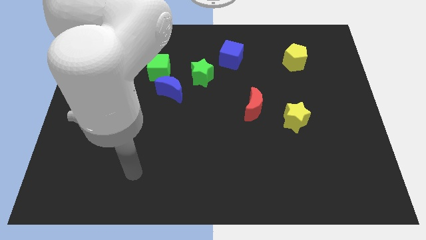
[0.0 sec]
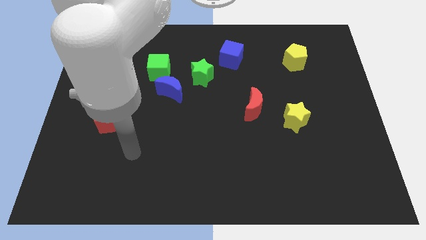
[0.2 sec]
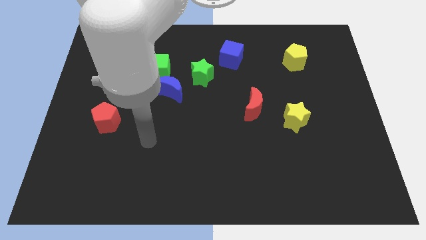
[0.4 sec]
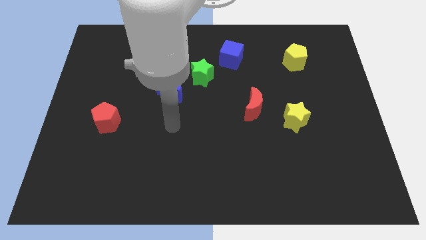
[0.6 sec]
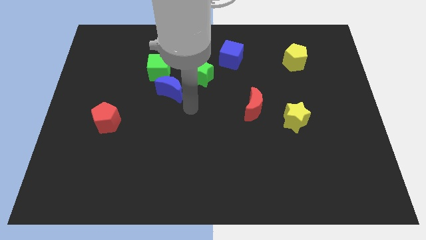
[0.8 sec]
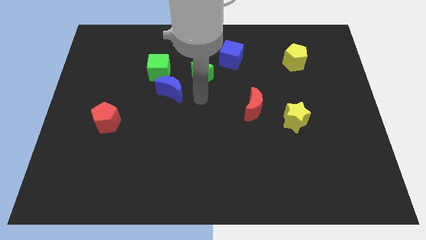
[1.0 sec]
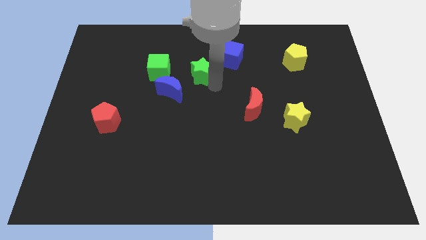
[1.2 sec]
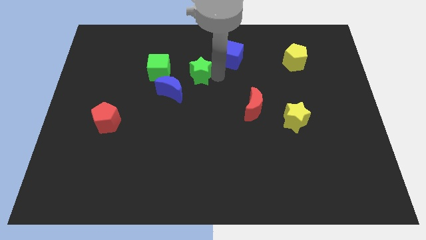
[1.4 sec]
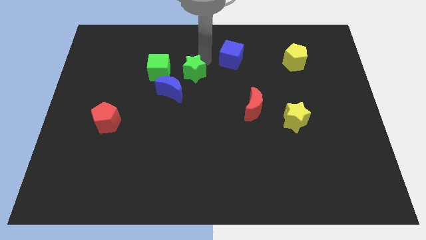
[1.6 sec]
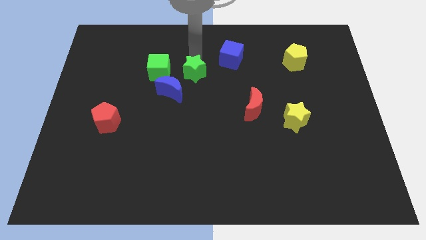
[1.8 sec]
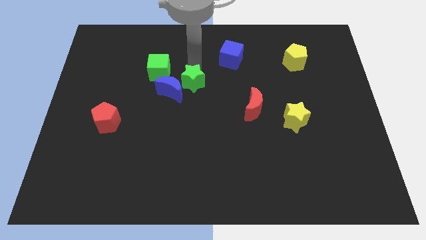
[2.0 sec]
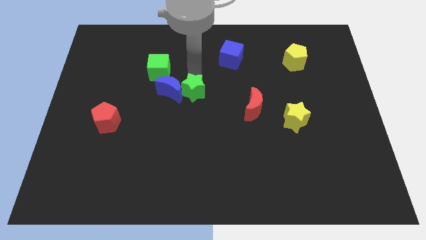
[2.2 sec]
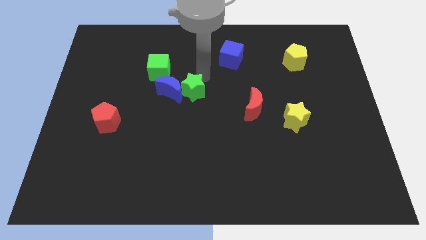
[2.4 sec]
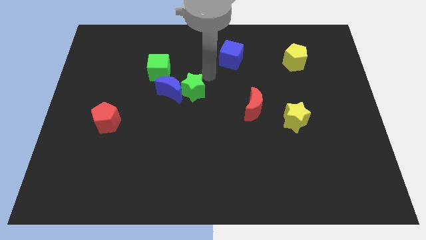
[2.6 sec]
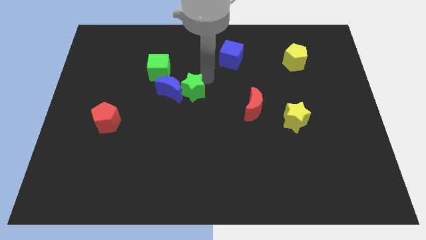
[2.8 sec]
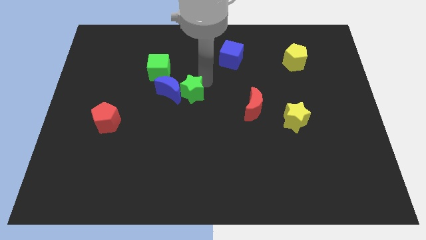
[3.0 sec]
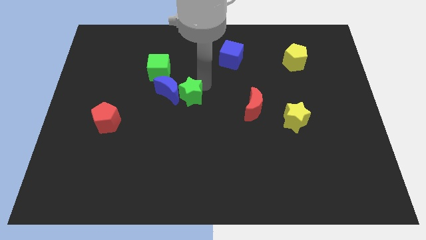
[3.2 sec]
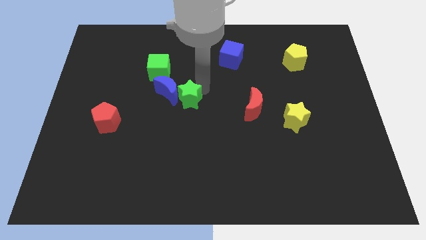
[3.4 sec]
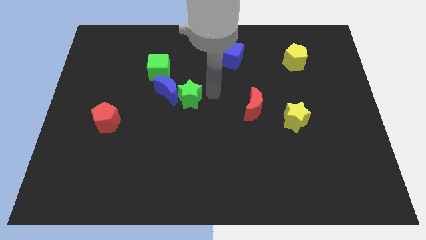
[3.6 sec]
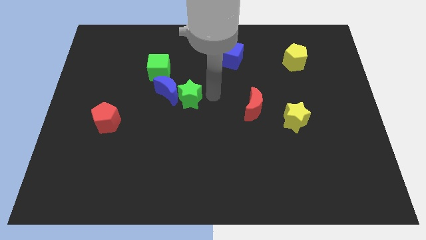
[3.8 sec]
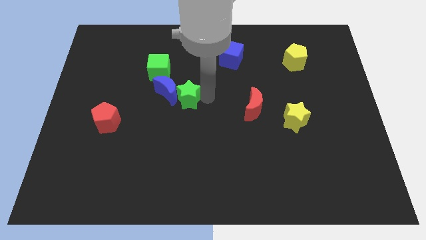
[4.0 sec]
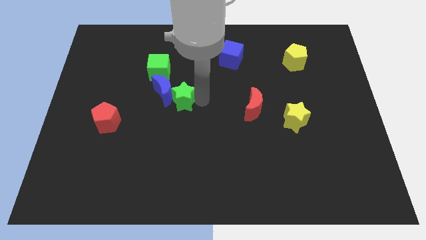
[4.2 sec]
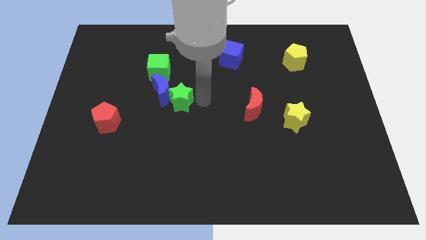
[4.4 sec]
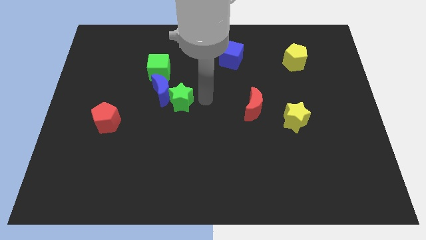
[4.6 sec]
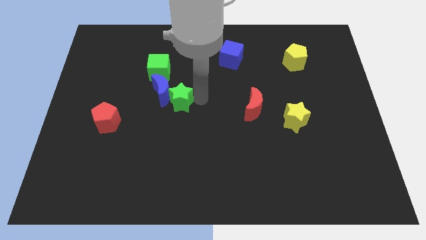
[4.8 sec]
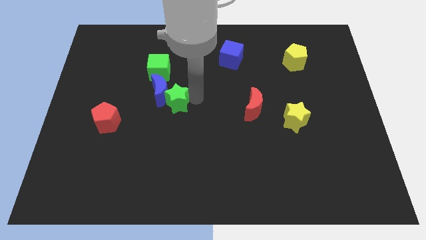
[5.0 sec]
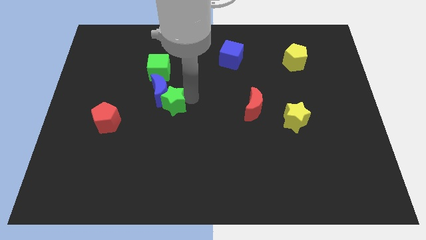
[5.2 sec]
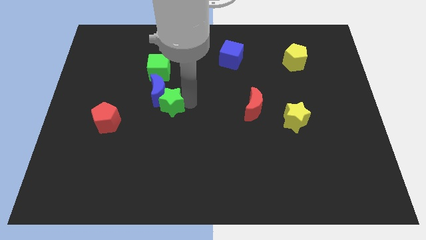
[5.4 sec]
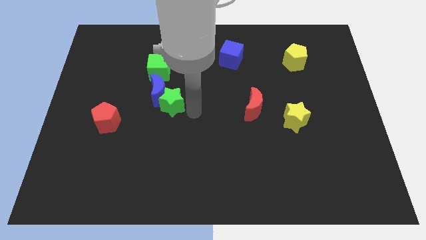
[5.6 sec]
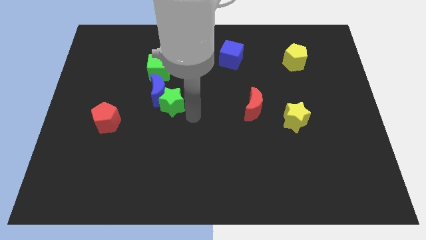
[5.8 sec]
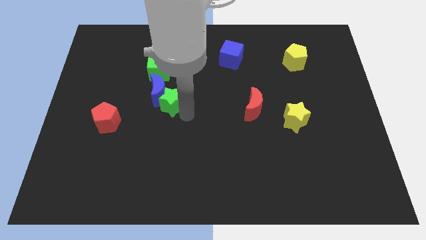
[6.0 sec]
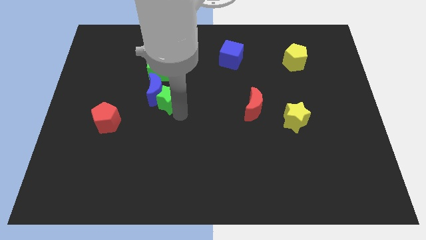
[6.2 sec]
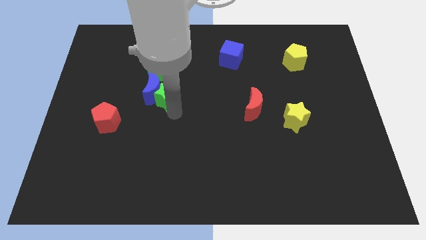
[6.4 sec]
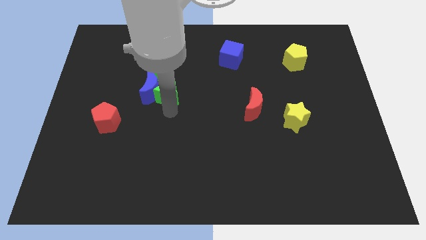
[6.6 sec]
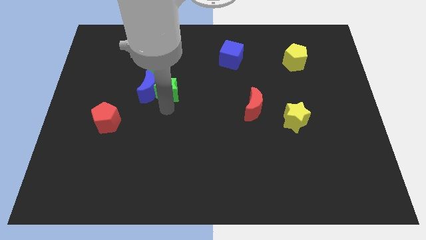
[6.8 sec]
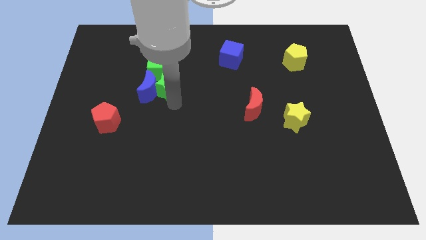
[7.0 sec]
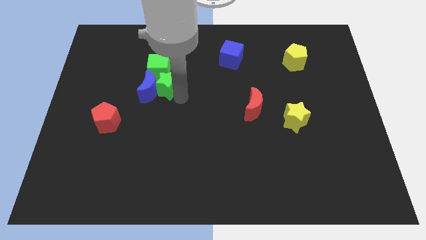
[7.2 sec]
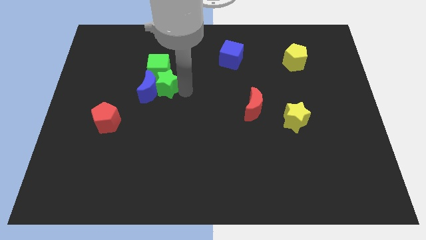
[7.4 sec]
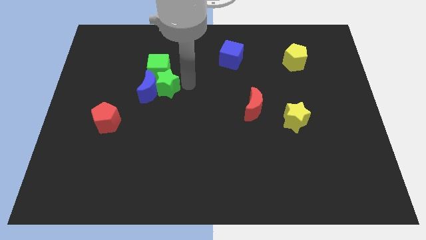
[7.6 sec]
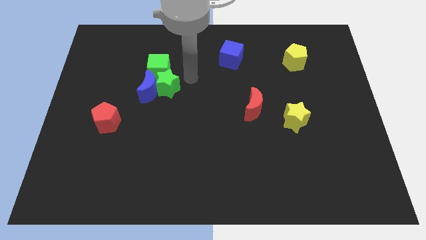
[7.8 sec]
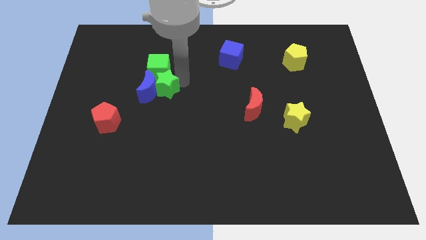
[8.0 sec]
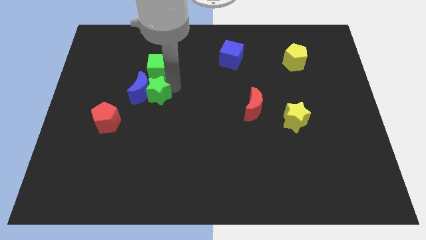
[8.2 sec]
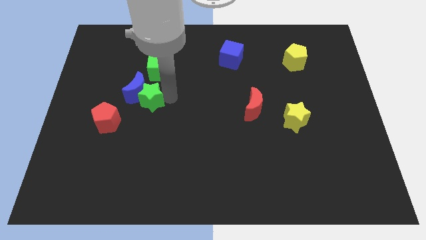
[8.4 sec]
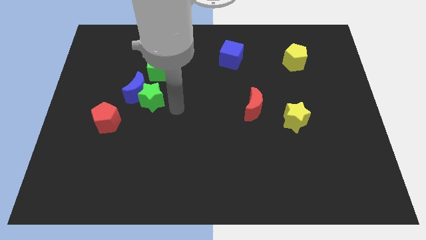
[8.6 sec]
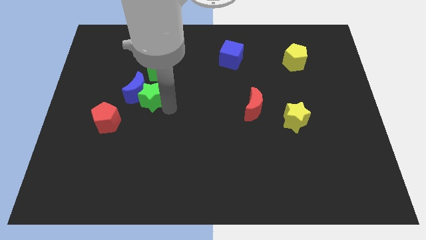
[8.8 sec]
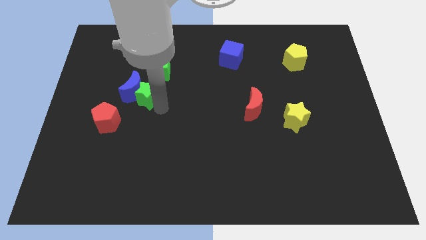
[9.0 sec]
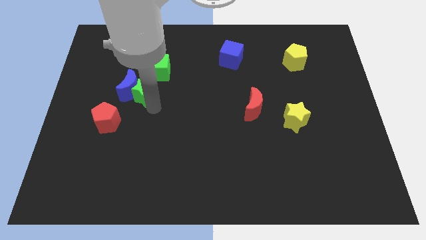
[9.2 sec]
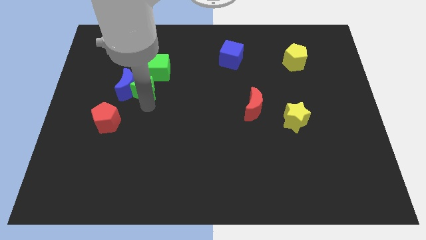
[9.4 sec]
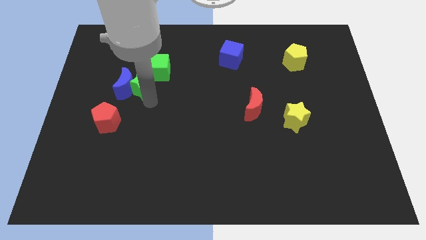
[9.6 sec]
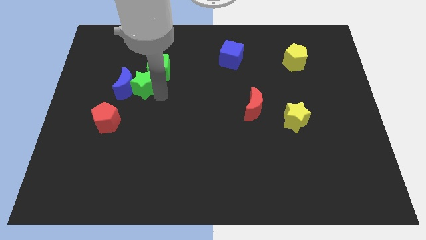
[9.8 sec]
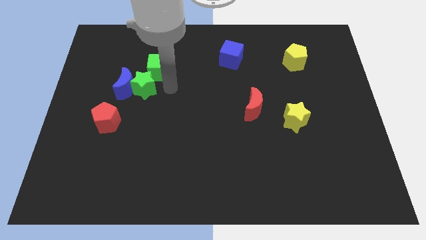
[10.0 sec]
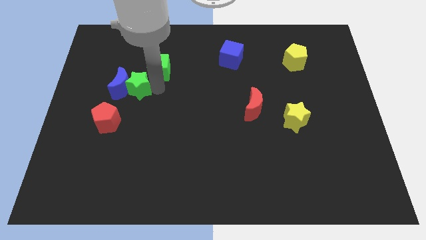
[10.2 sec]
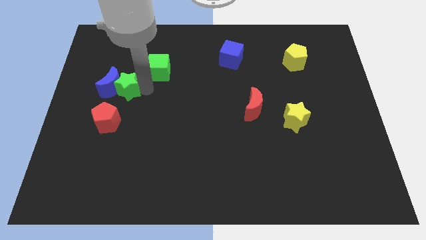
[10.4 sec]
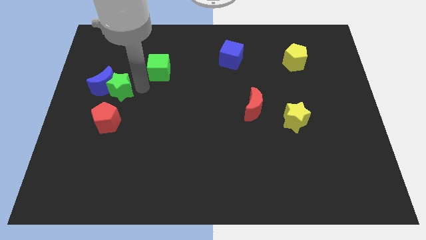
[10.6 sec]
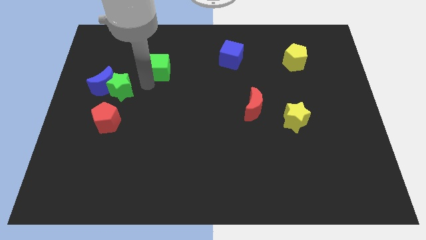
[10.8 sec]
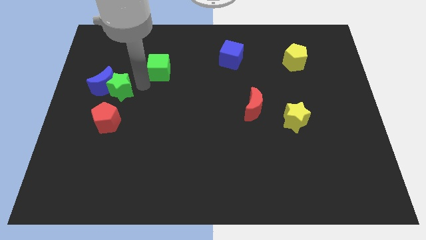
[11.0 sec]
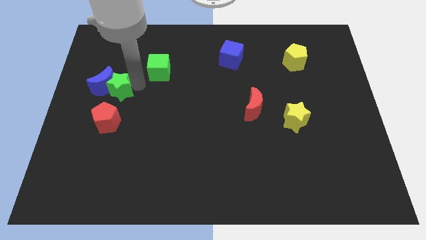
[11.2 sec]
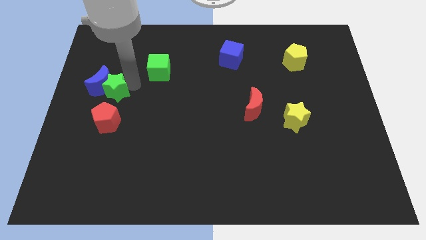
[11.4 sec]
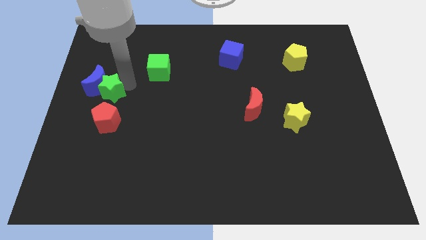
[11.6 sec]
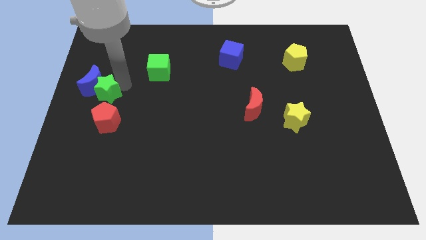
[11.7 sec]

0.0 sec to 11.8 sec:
put the green star to the left side
